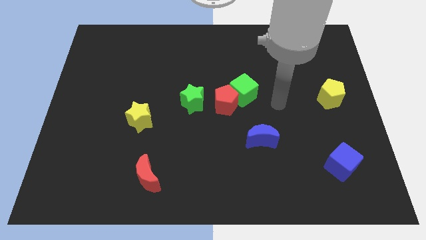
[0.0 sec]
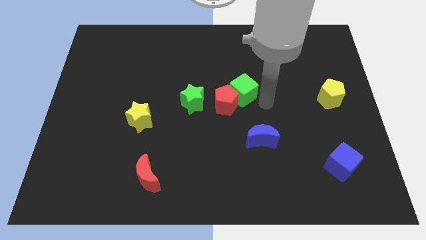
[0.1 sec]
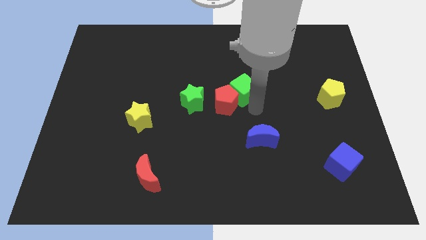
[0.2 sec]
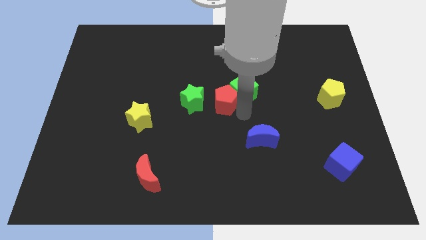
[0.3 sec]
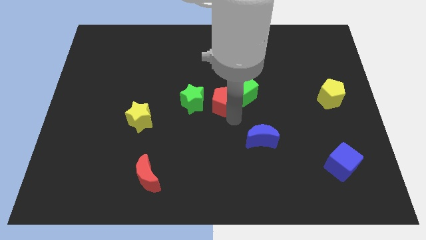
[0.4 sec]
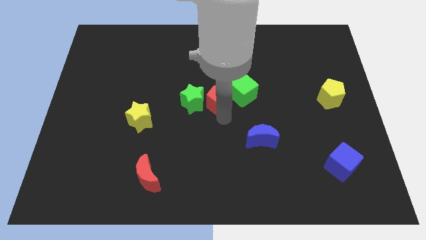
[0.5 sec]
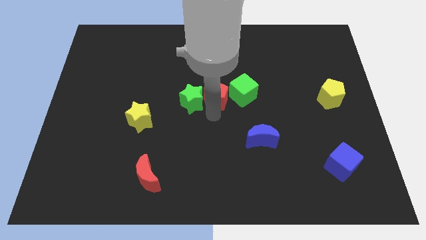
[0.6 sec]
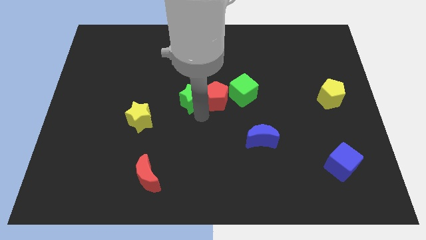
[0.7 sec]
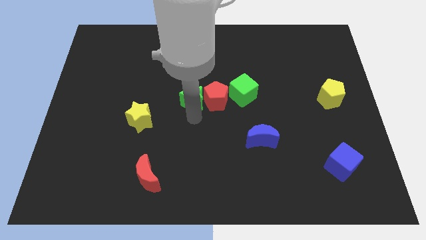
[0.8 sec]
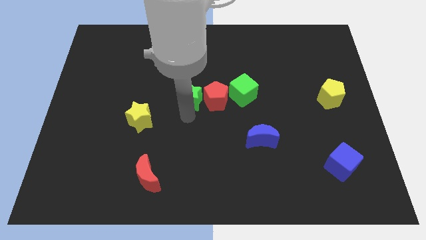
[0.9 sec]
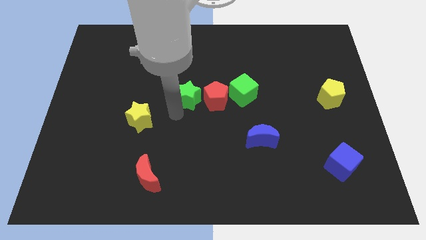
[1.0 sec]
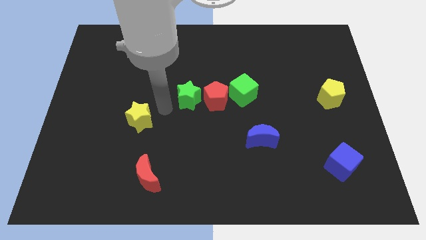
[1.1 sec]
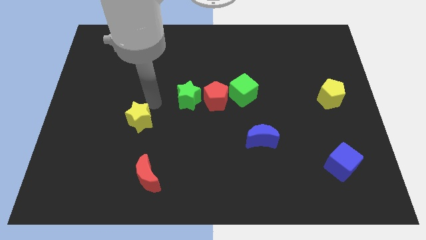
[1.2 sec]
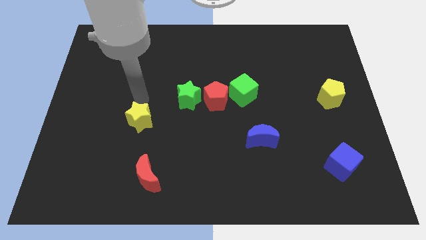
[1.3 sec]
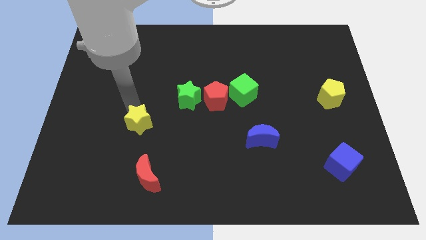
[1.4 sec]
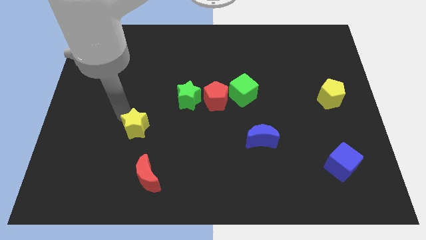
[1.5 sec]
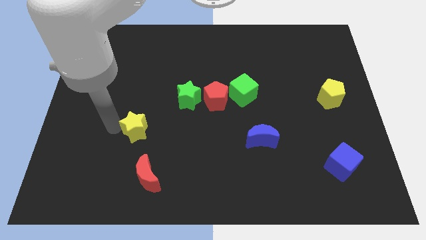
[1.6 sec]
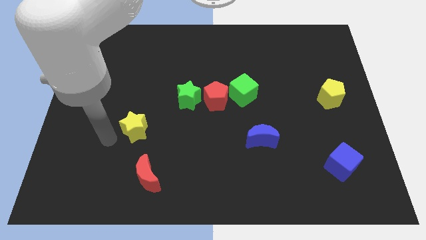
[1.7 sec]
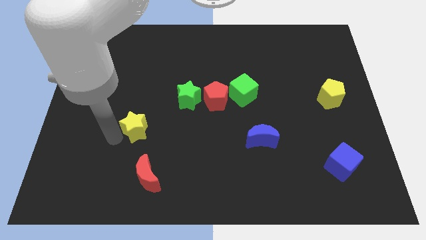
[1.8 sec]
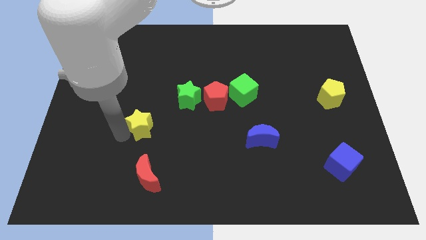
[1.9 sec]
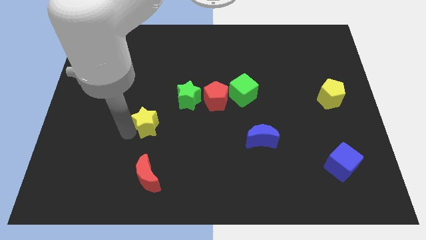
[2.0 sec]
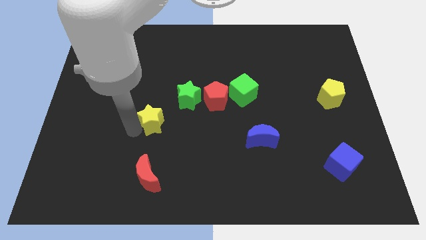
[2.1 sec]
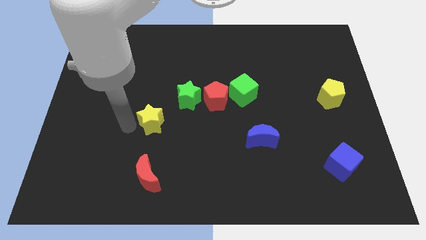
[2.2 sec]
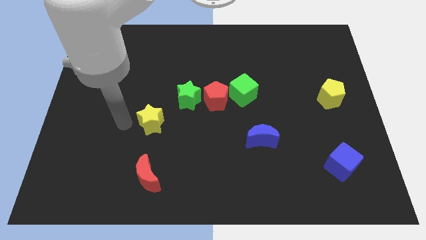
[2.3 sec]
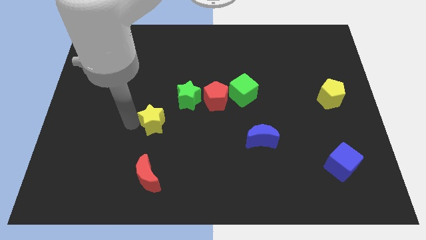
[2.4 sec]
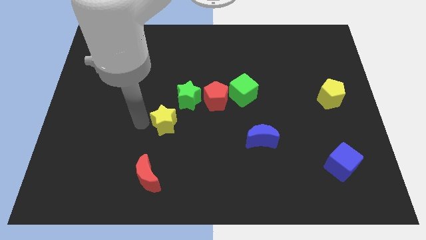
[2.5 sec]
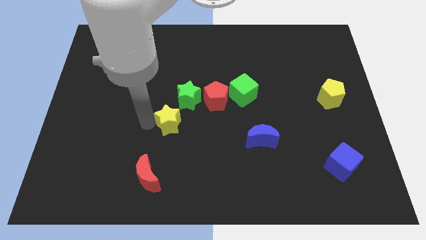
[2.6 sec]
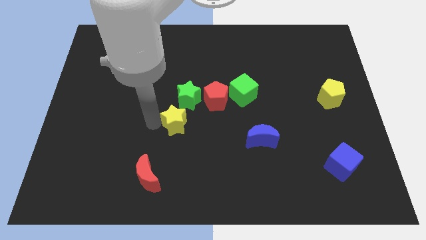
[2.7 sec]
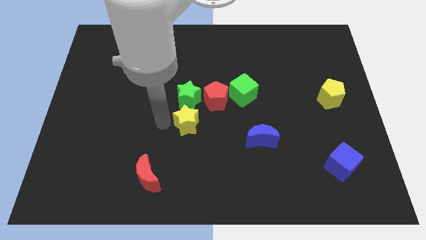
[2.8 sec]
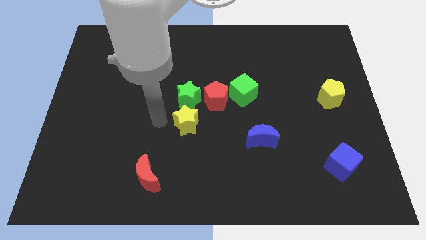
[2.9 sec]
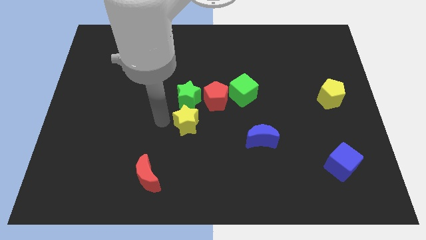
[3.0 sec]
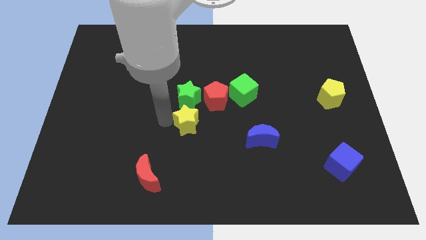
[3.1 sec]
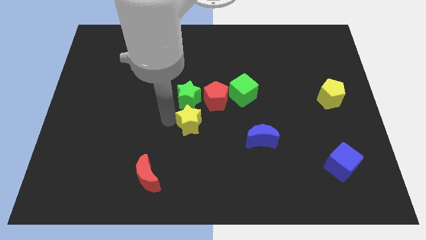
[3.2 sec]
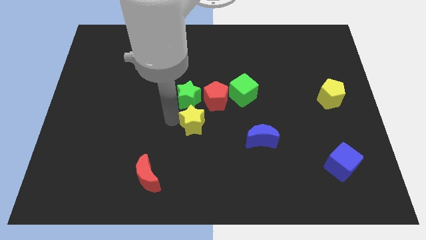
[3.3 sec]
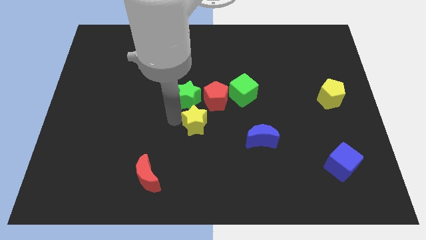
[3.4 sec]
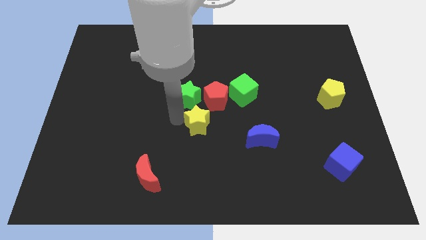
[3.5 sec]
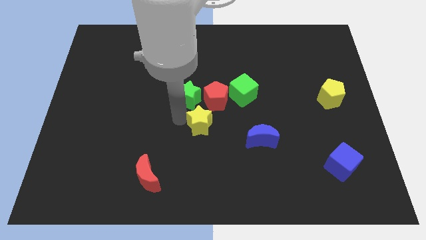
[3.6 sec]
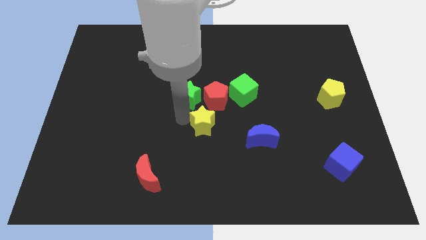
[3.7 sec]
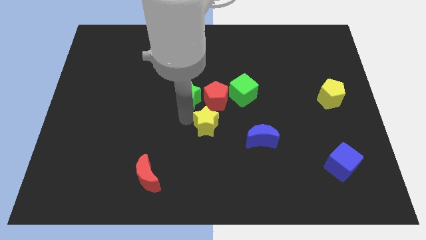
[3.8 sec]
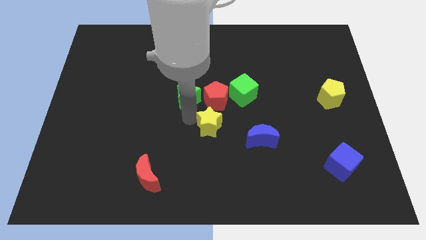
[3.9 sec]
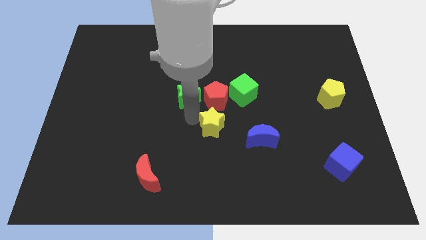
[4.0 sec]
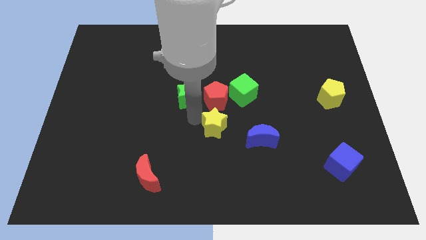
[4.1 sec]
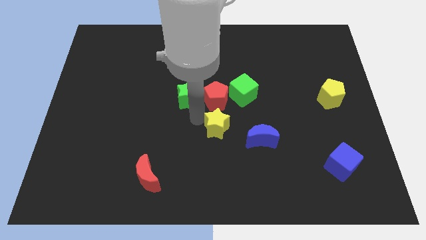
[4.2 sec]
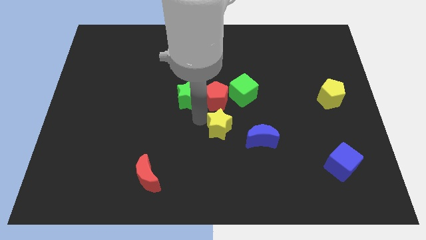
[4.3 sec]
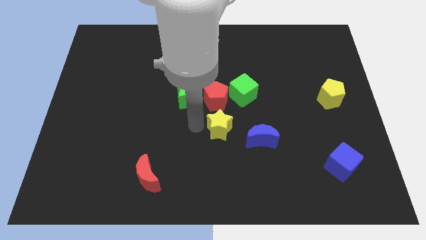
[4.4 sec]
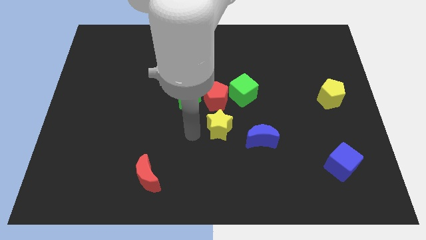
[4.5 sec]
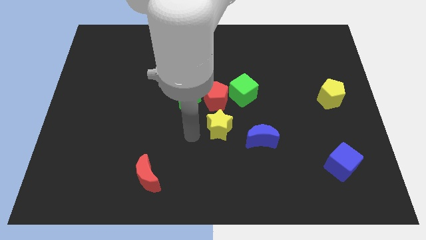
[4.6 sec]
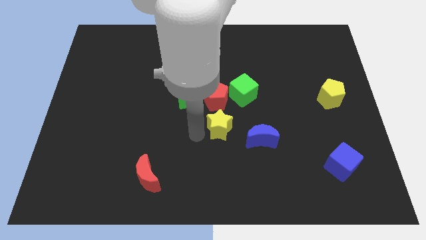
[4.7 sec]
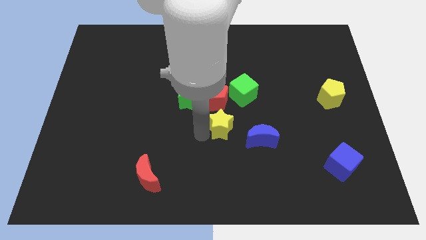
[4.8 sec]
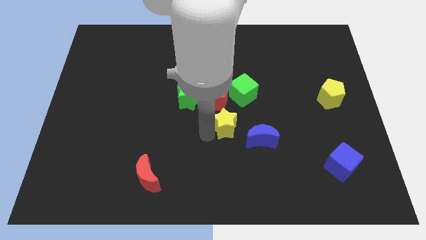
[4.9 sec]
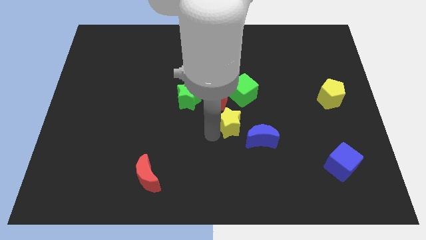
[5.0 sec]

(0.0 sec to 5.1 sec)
slide the yellow star to the right

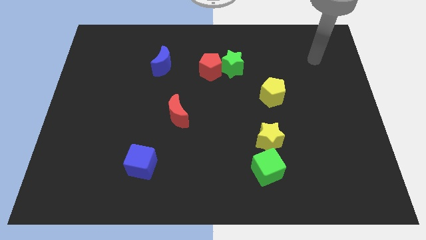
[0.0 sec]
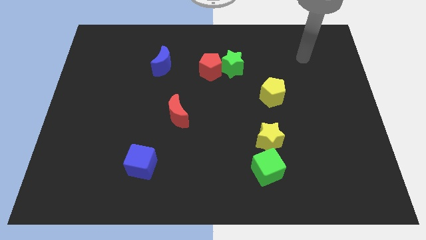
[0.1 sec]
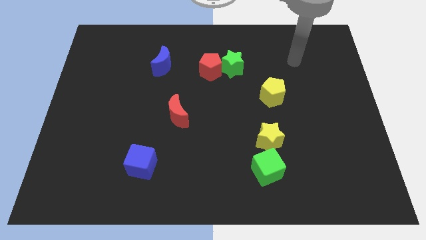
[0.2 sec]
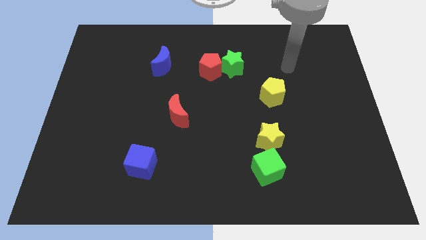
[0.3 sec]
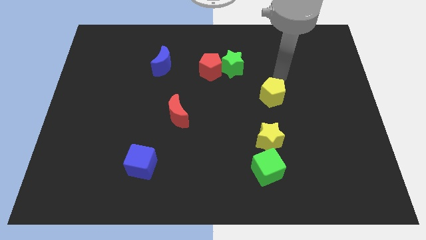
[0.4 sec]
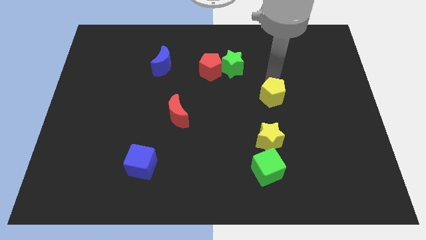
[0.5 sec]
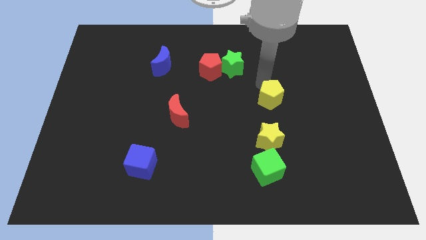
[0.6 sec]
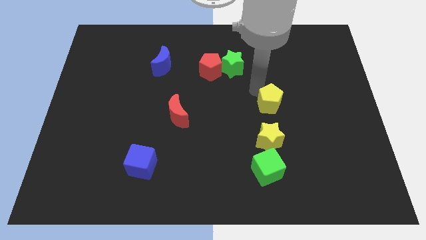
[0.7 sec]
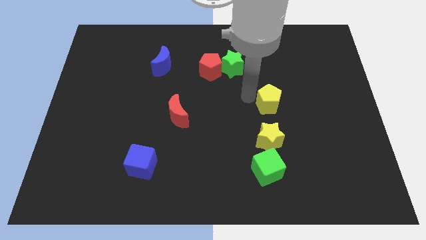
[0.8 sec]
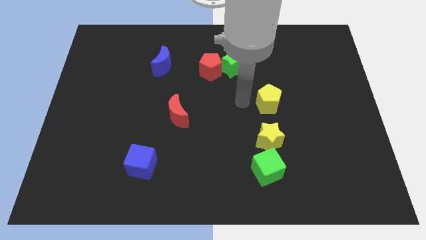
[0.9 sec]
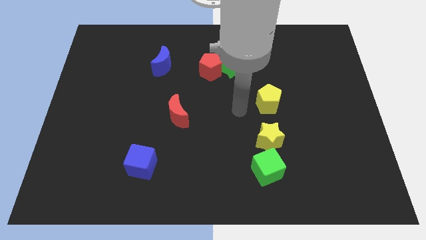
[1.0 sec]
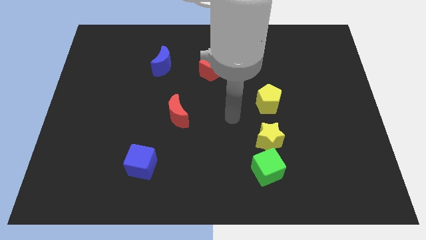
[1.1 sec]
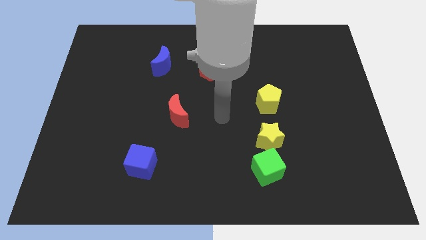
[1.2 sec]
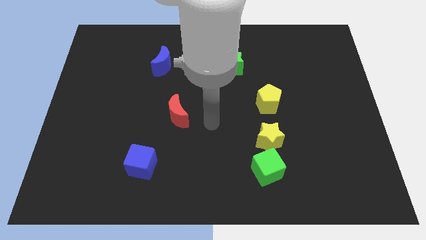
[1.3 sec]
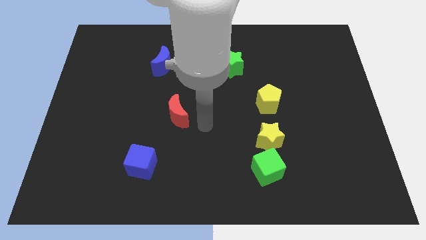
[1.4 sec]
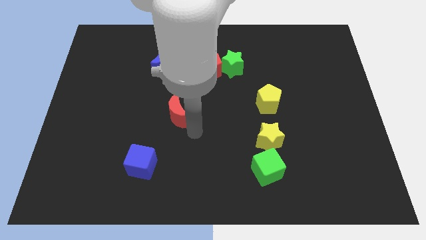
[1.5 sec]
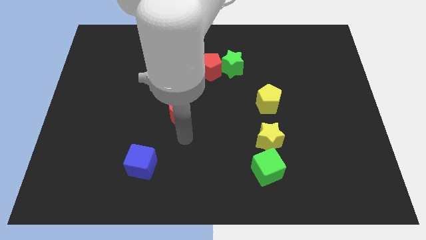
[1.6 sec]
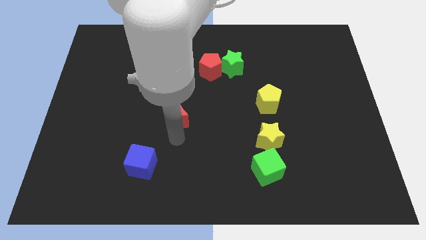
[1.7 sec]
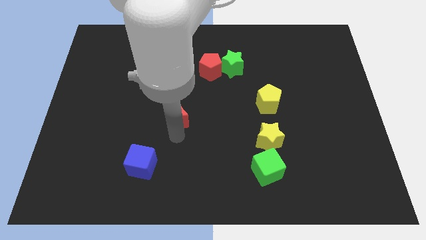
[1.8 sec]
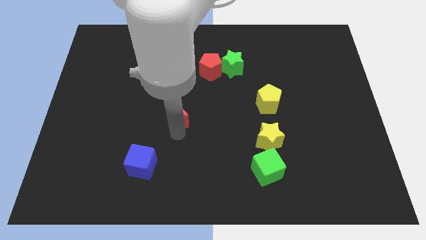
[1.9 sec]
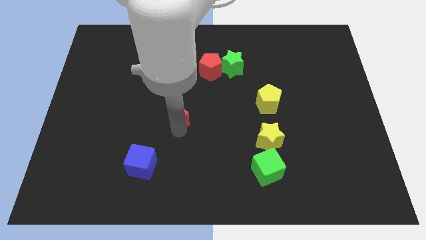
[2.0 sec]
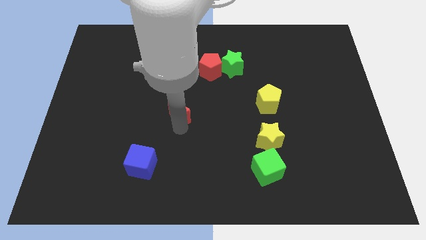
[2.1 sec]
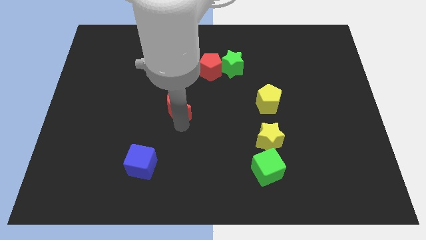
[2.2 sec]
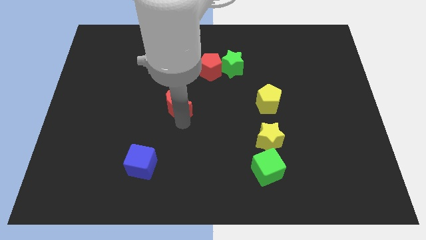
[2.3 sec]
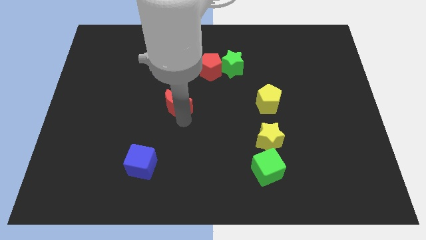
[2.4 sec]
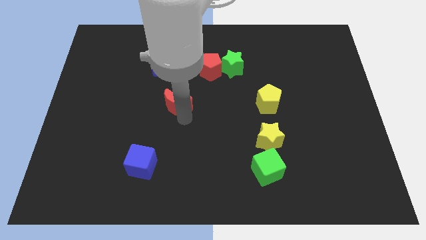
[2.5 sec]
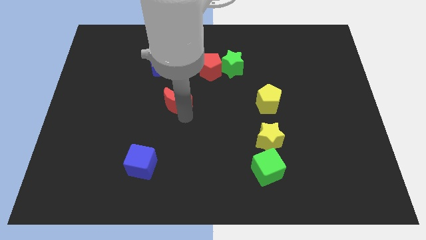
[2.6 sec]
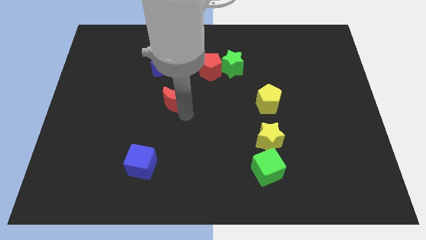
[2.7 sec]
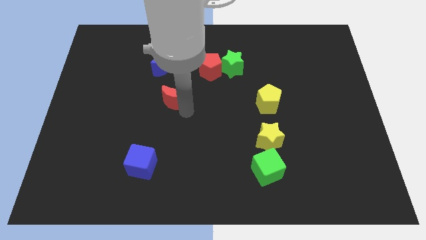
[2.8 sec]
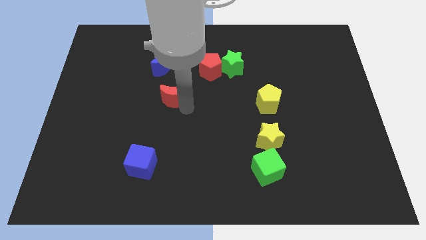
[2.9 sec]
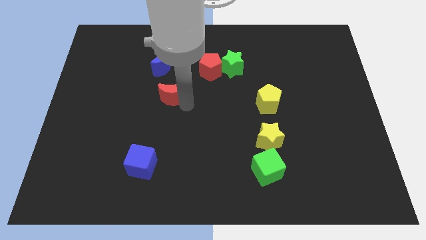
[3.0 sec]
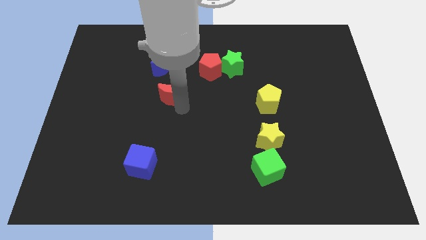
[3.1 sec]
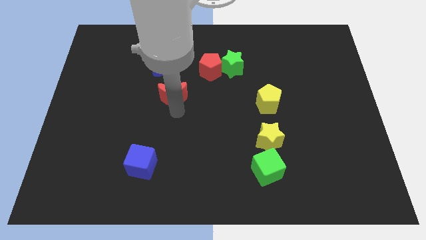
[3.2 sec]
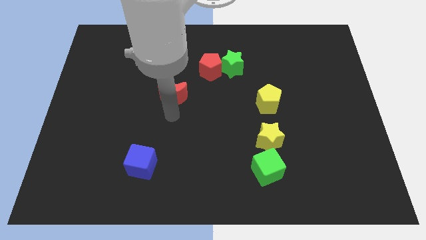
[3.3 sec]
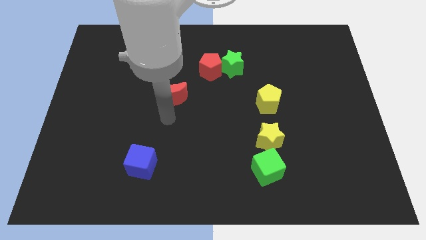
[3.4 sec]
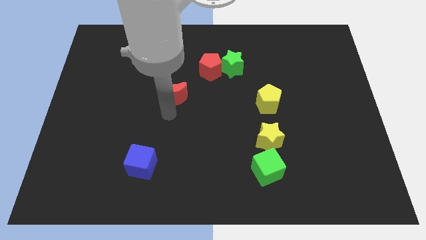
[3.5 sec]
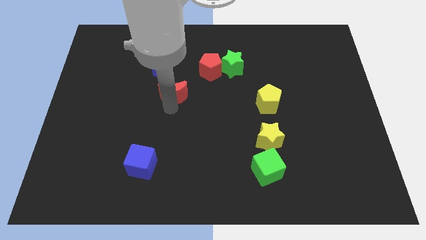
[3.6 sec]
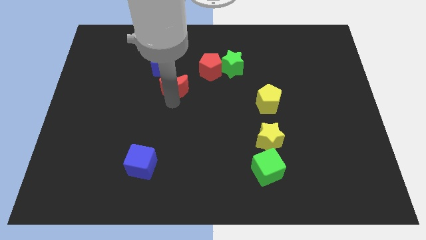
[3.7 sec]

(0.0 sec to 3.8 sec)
slide the red moon upwards a little
